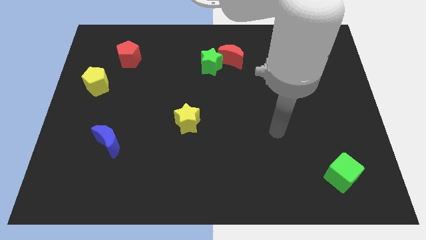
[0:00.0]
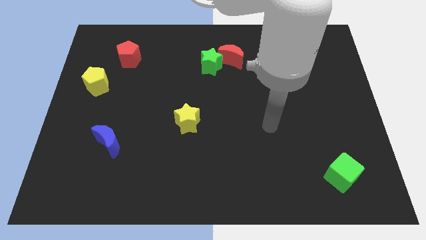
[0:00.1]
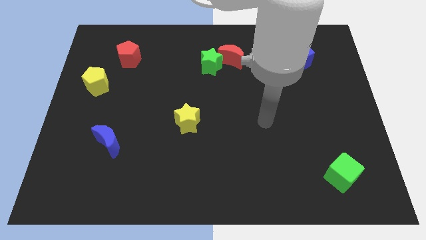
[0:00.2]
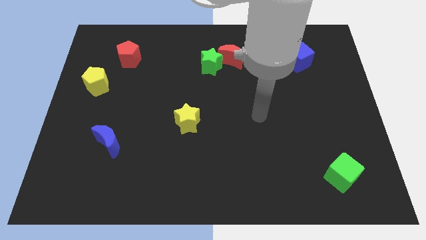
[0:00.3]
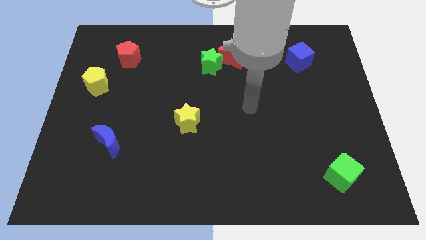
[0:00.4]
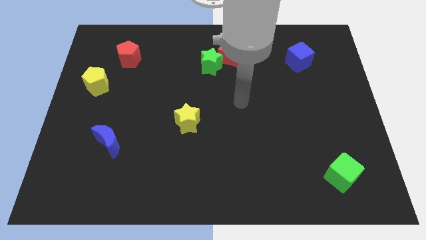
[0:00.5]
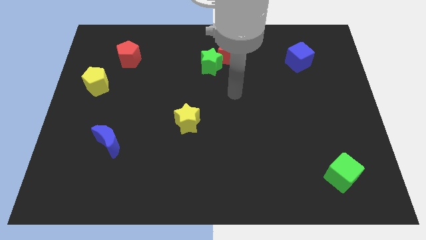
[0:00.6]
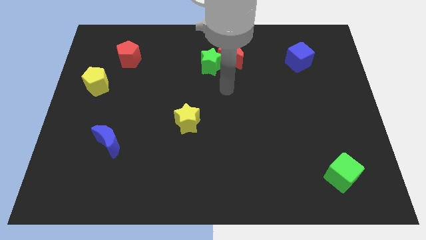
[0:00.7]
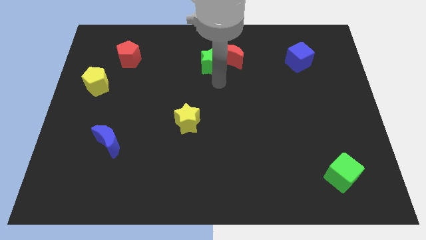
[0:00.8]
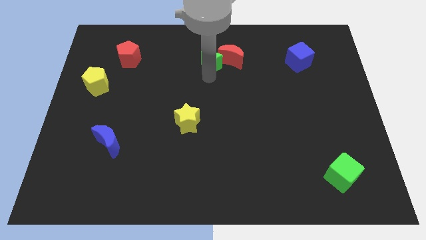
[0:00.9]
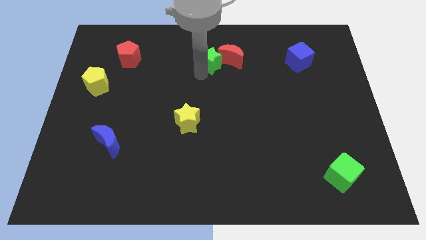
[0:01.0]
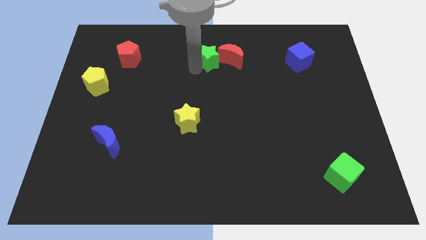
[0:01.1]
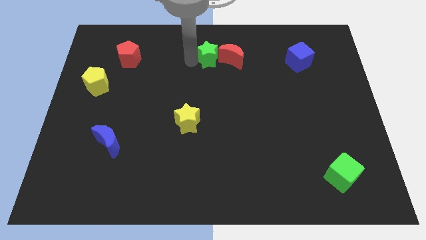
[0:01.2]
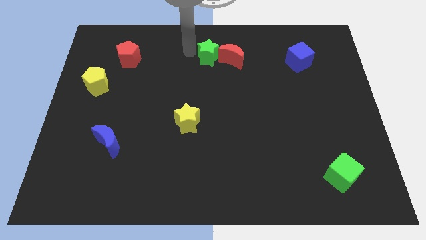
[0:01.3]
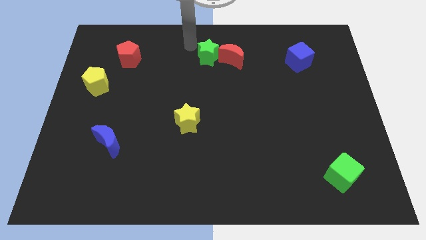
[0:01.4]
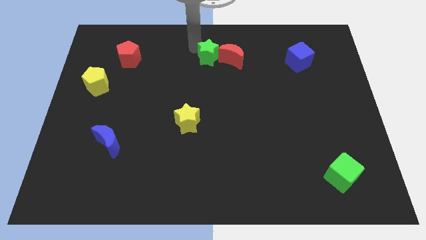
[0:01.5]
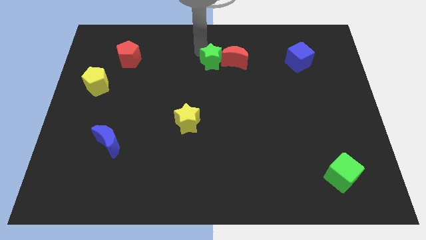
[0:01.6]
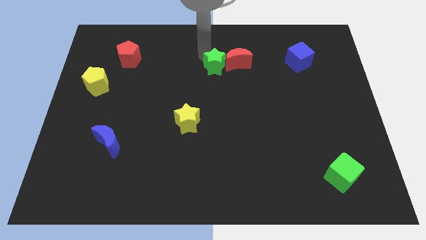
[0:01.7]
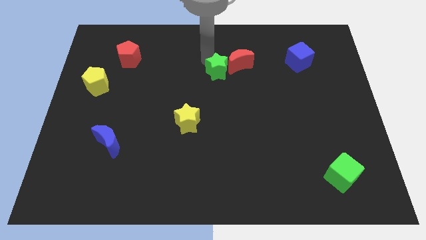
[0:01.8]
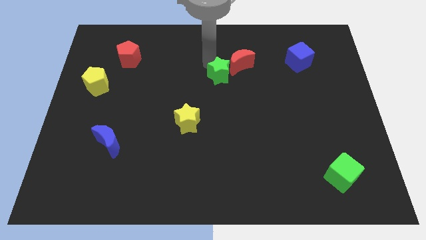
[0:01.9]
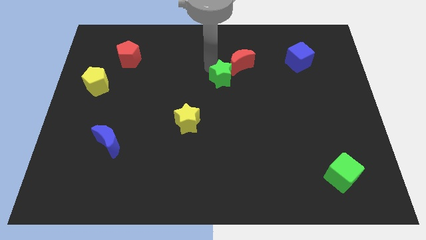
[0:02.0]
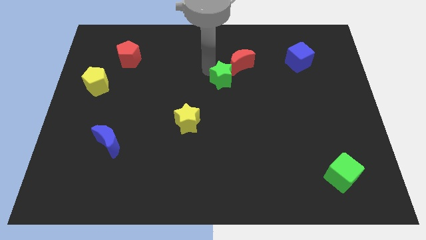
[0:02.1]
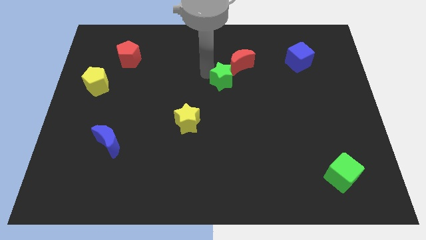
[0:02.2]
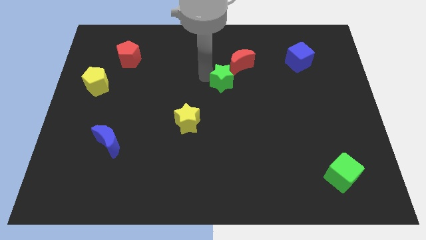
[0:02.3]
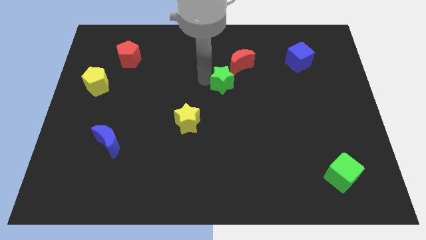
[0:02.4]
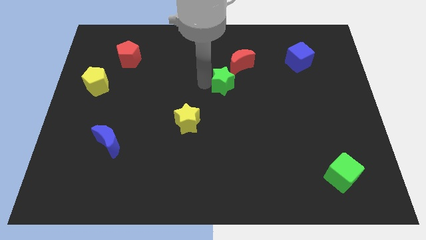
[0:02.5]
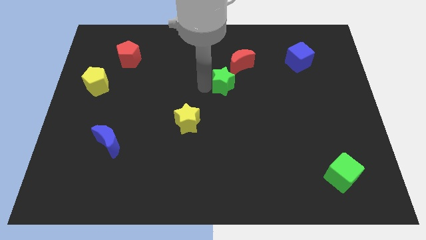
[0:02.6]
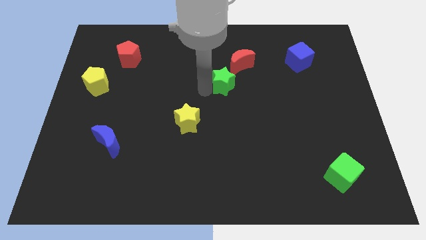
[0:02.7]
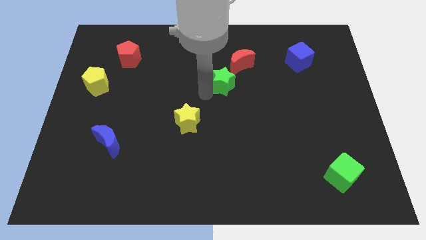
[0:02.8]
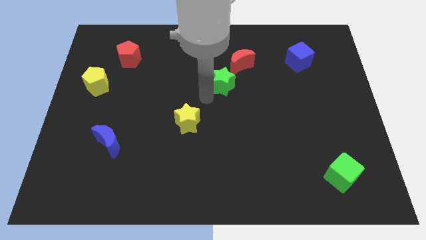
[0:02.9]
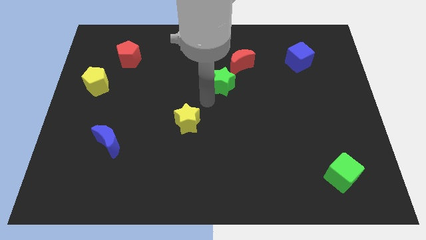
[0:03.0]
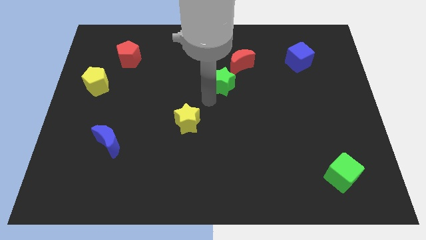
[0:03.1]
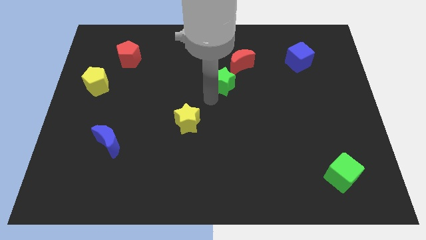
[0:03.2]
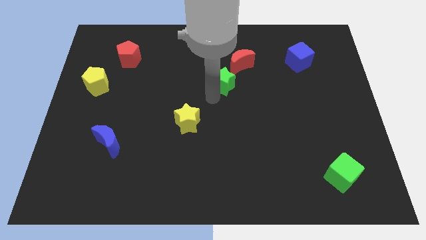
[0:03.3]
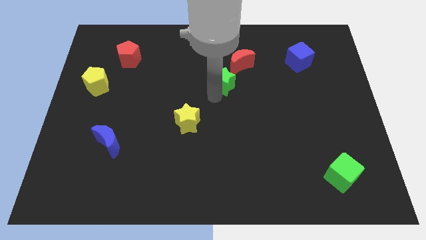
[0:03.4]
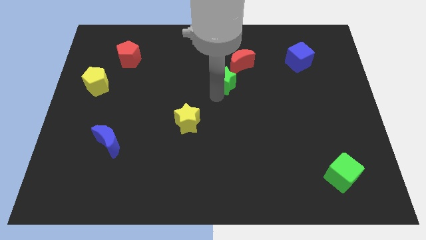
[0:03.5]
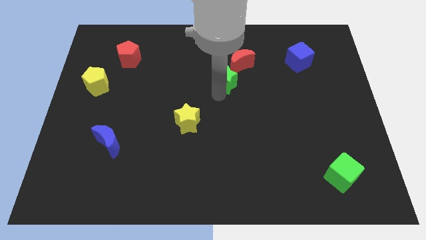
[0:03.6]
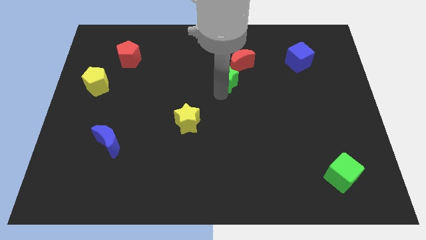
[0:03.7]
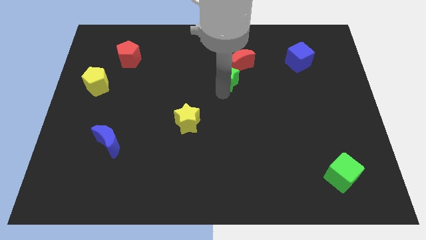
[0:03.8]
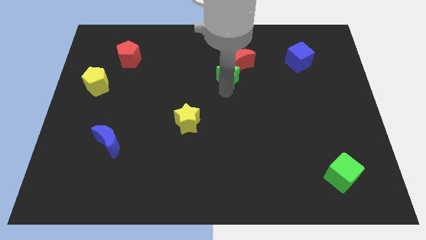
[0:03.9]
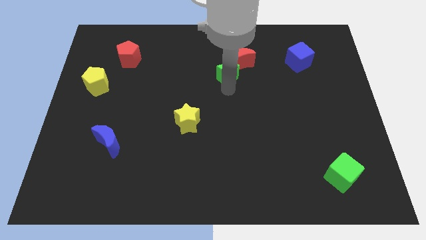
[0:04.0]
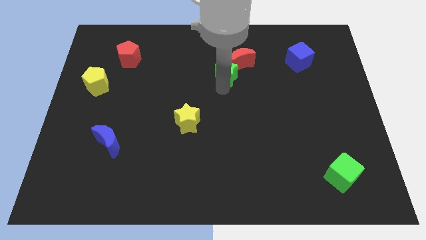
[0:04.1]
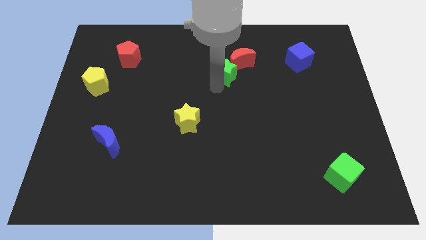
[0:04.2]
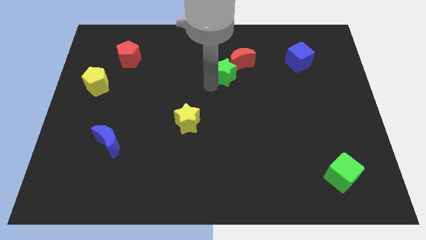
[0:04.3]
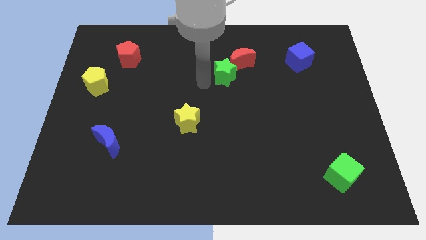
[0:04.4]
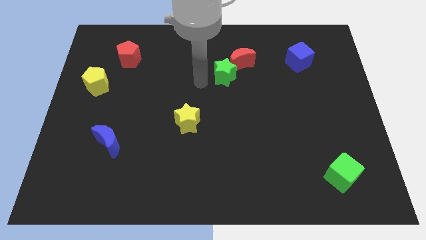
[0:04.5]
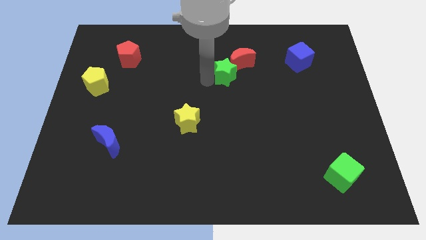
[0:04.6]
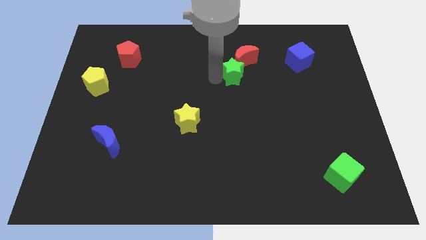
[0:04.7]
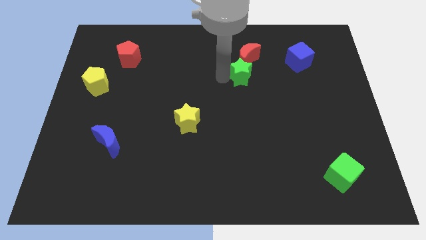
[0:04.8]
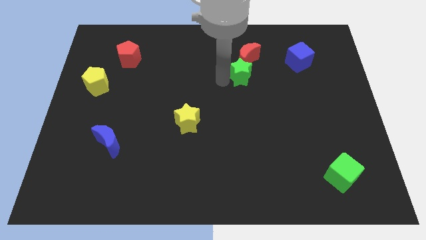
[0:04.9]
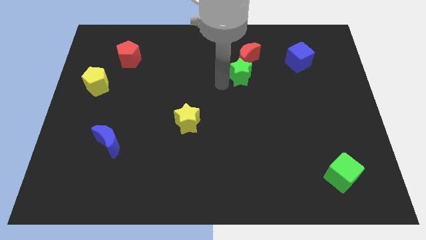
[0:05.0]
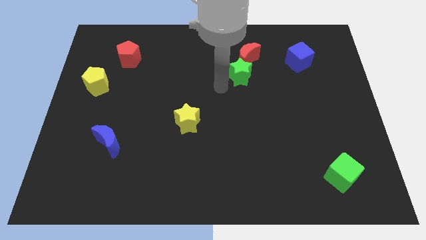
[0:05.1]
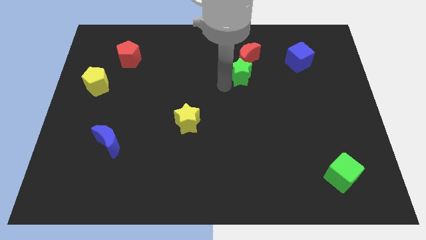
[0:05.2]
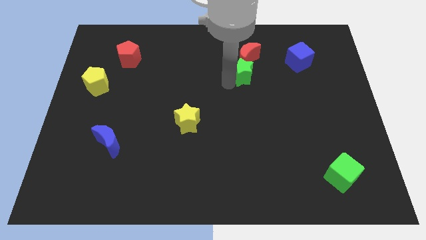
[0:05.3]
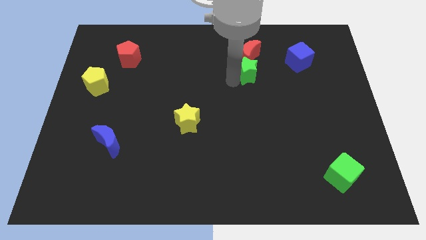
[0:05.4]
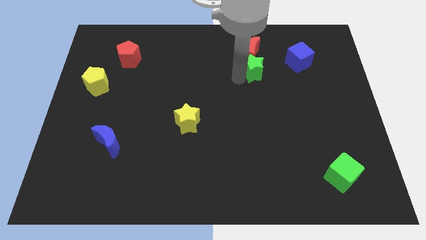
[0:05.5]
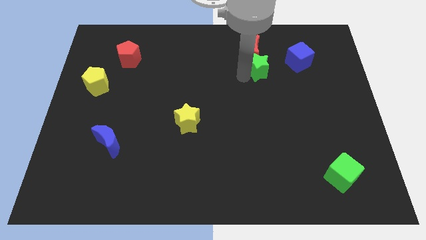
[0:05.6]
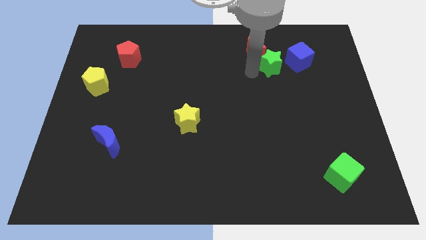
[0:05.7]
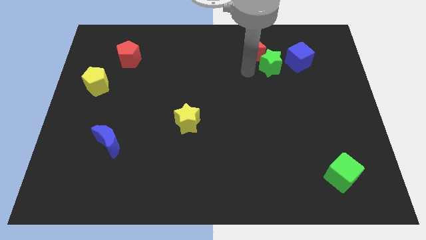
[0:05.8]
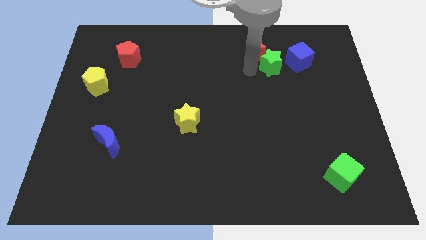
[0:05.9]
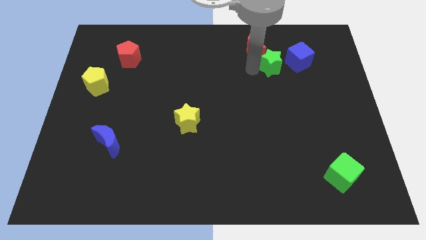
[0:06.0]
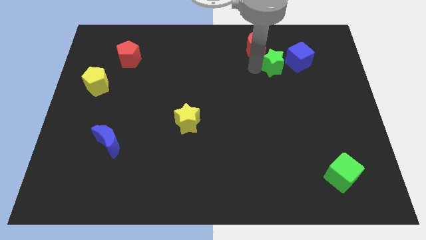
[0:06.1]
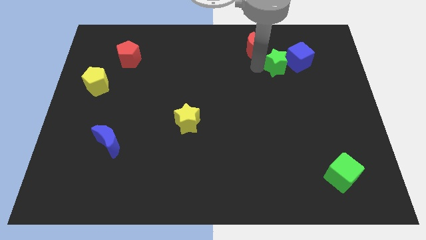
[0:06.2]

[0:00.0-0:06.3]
slide the green star close to the blue cube

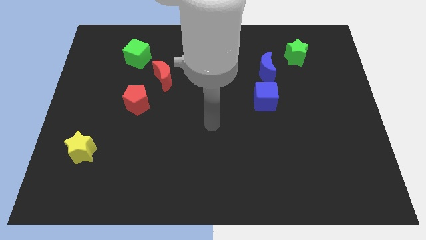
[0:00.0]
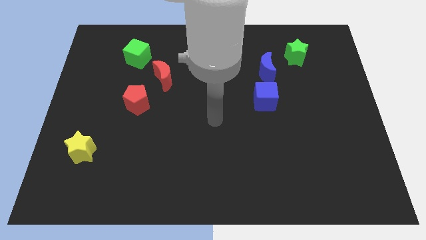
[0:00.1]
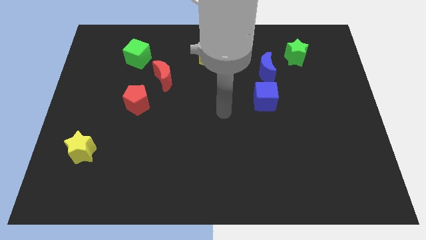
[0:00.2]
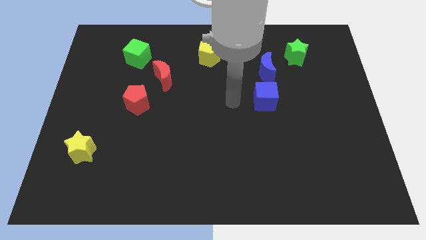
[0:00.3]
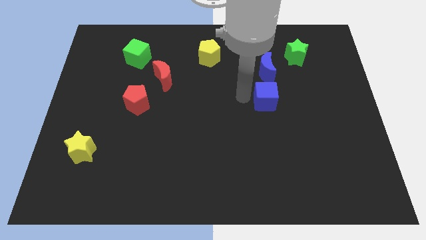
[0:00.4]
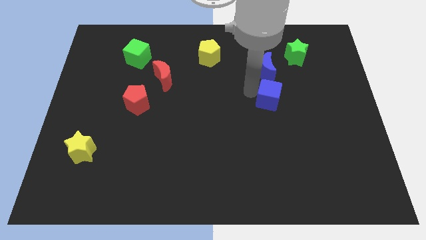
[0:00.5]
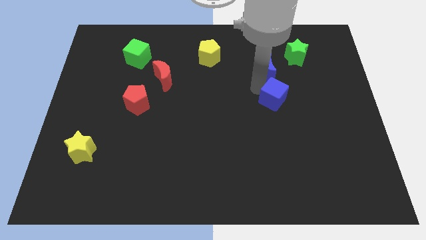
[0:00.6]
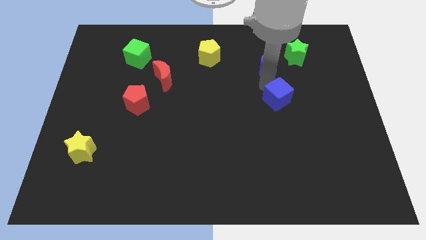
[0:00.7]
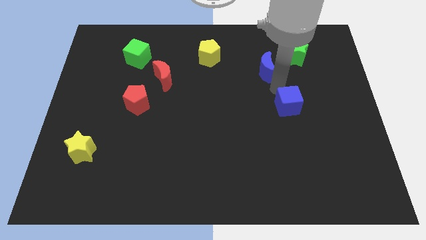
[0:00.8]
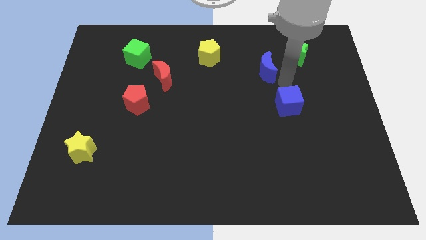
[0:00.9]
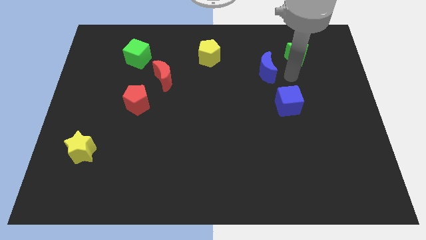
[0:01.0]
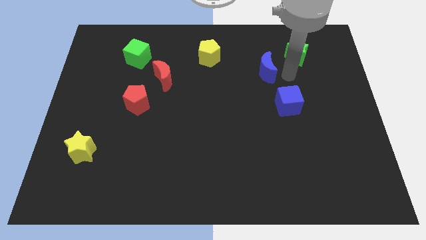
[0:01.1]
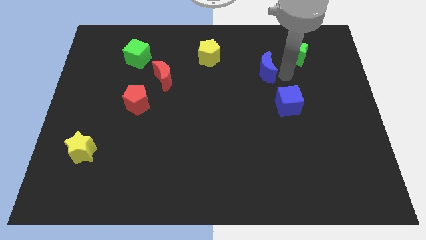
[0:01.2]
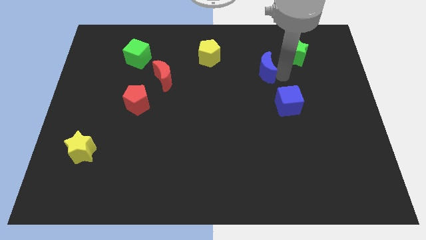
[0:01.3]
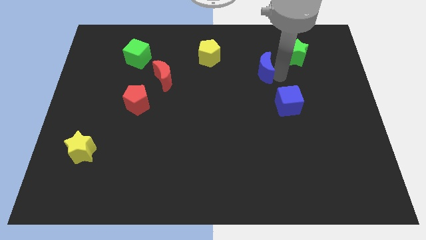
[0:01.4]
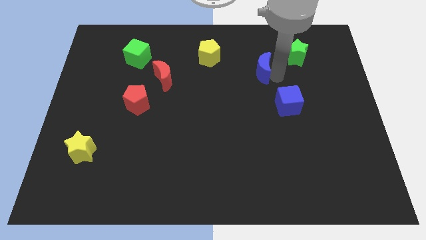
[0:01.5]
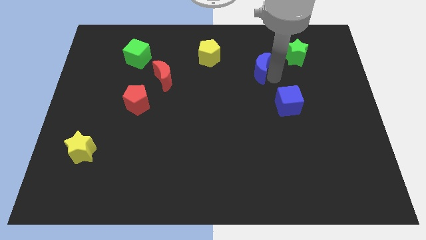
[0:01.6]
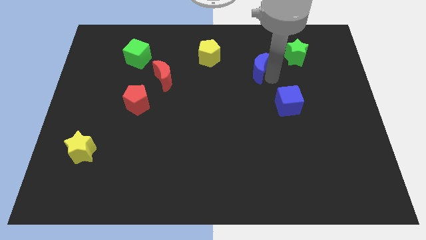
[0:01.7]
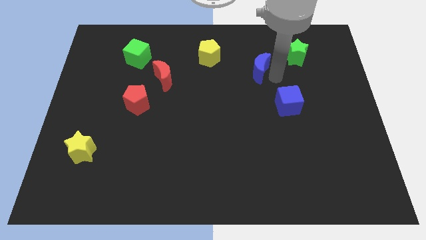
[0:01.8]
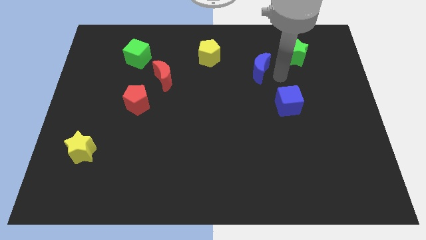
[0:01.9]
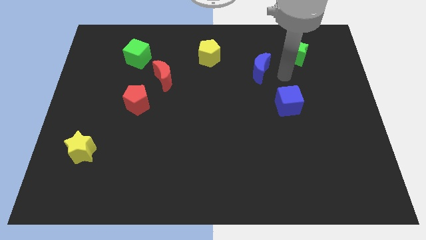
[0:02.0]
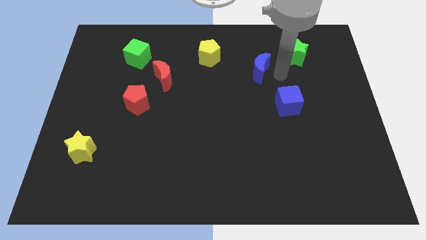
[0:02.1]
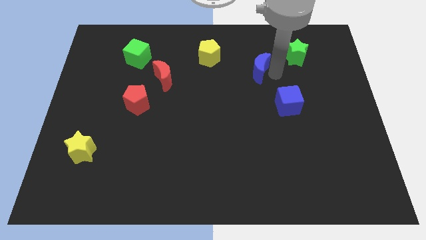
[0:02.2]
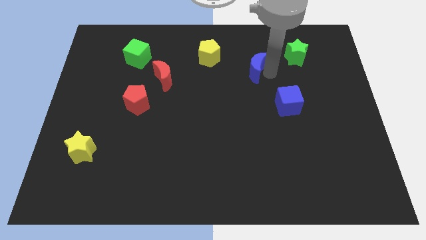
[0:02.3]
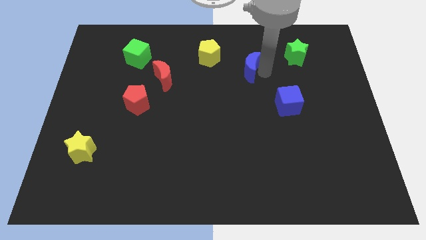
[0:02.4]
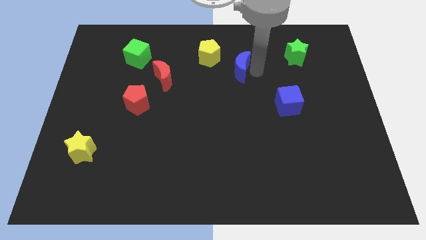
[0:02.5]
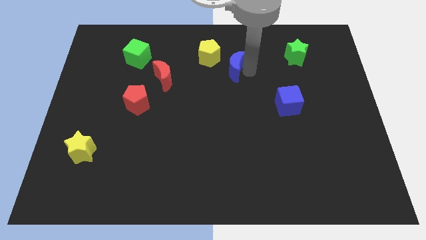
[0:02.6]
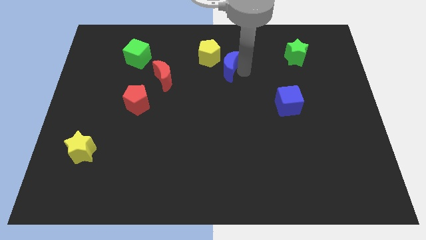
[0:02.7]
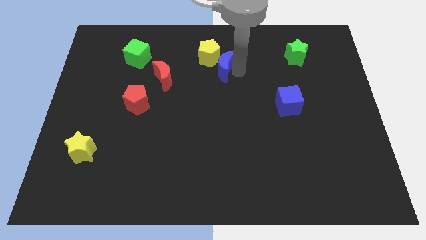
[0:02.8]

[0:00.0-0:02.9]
slide the blue moon towards the yellow pentagon
